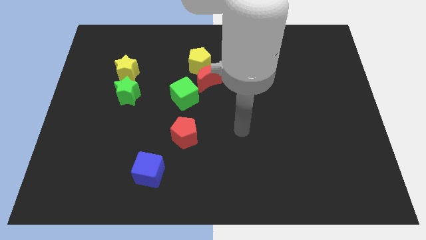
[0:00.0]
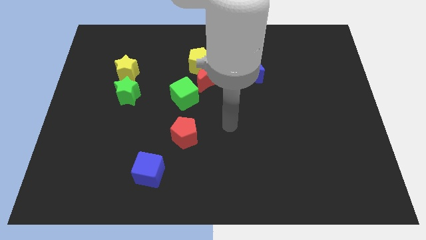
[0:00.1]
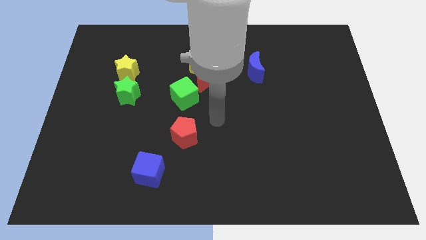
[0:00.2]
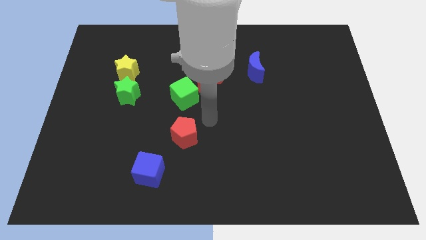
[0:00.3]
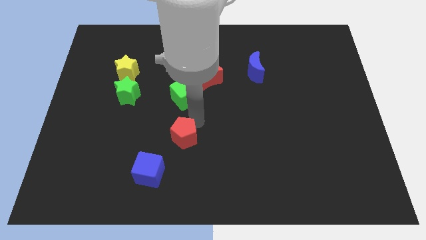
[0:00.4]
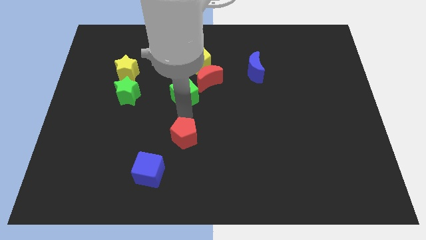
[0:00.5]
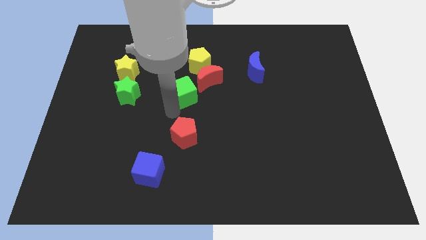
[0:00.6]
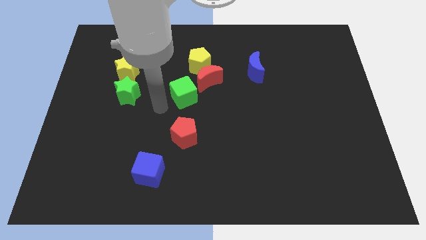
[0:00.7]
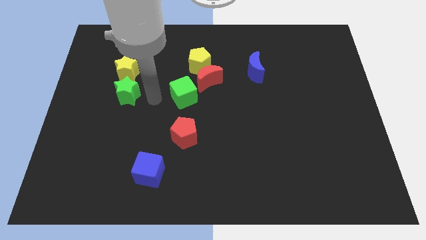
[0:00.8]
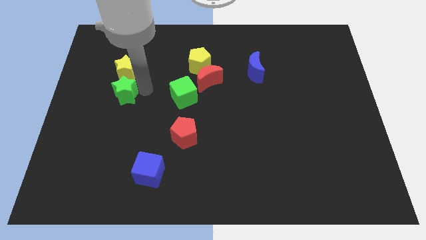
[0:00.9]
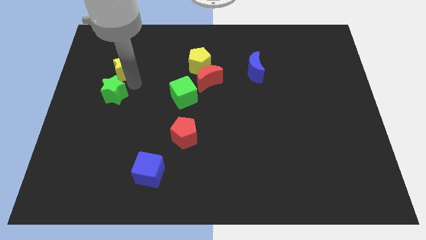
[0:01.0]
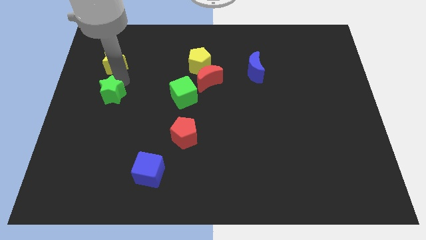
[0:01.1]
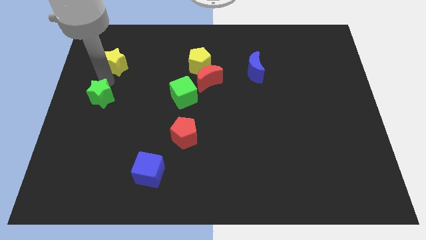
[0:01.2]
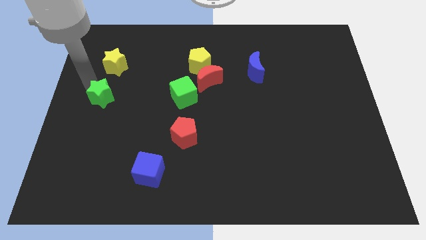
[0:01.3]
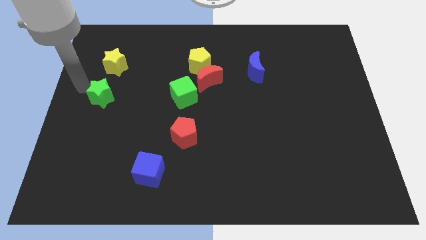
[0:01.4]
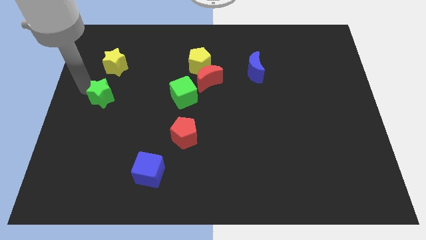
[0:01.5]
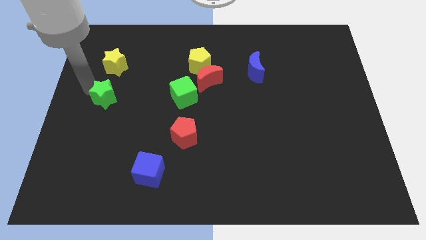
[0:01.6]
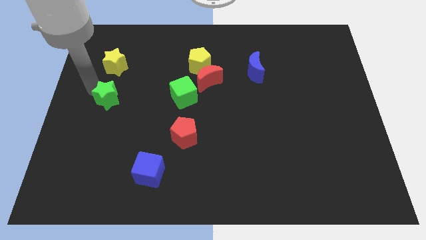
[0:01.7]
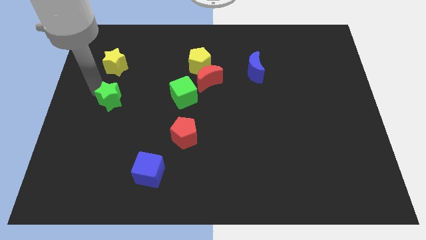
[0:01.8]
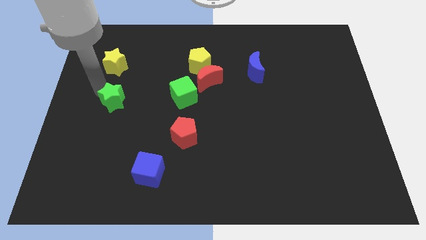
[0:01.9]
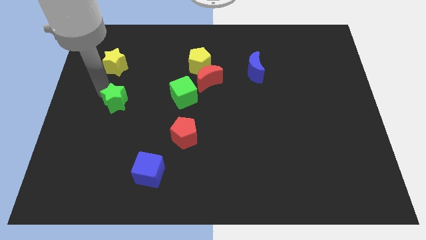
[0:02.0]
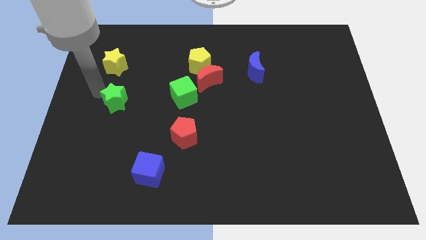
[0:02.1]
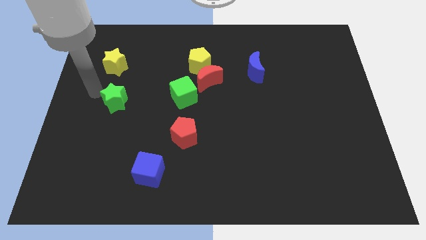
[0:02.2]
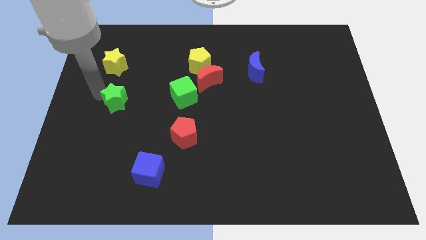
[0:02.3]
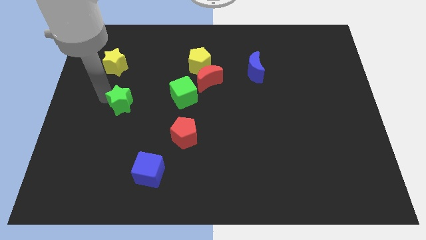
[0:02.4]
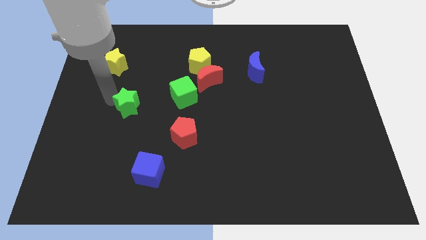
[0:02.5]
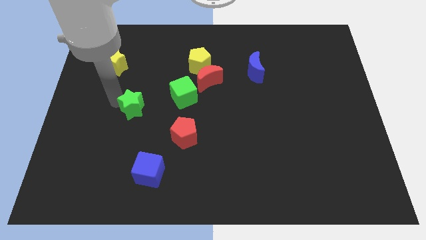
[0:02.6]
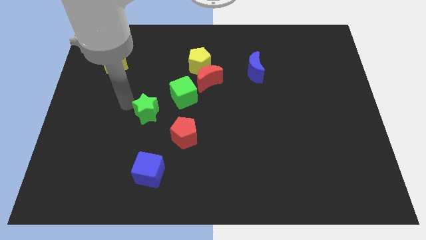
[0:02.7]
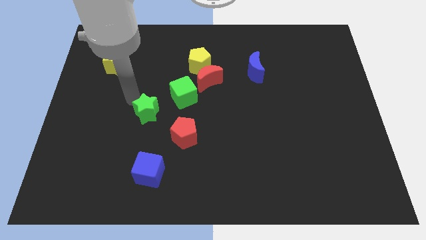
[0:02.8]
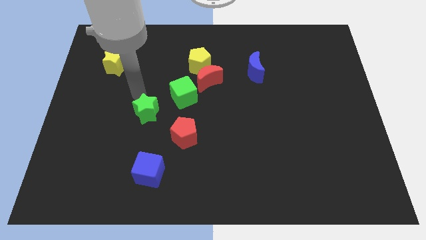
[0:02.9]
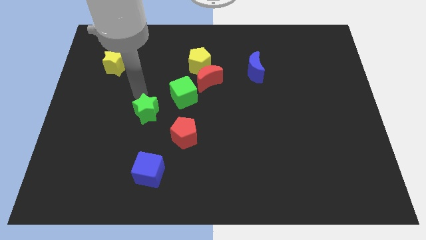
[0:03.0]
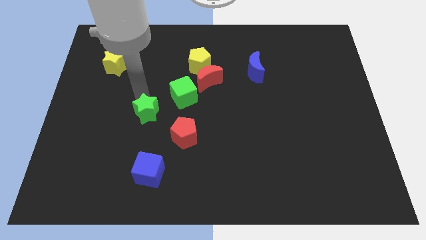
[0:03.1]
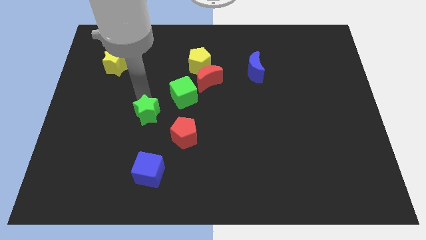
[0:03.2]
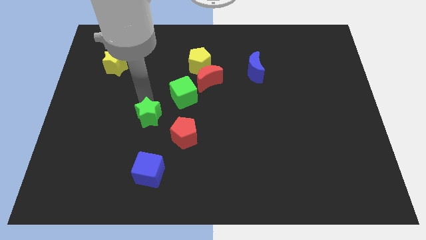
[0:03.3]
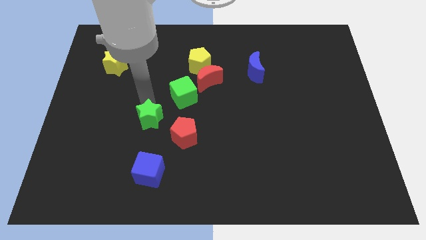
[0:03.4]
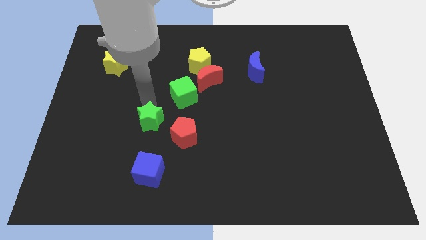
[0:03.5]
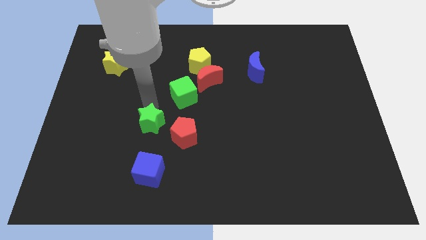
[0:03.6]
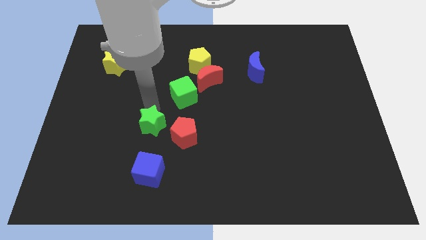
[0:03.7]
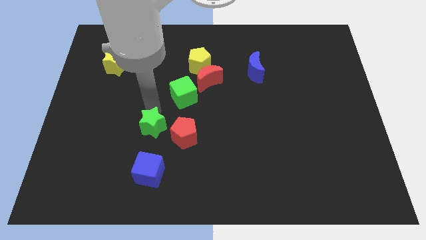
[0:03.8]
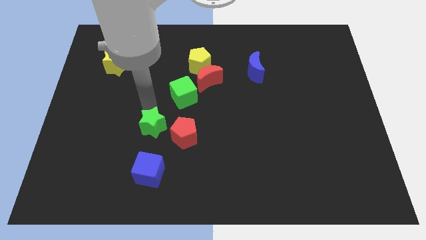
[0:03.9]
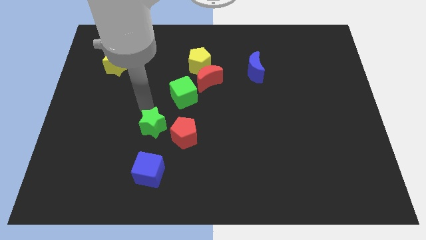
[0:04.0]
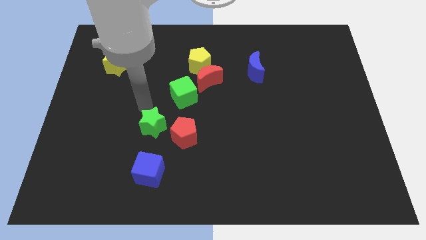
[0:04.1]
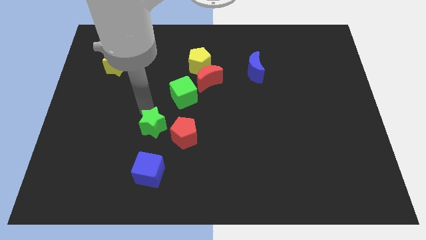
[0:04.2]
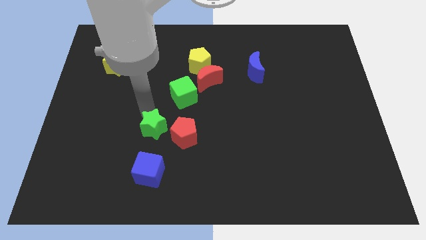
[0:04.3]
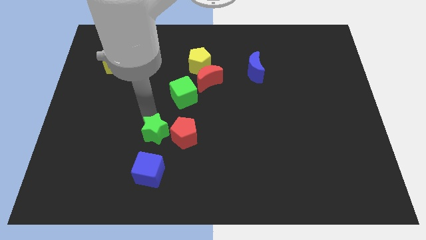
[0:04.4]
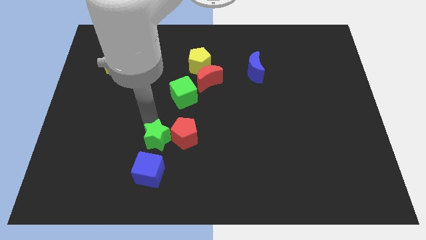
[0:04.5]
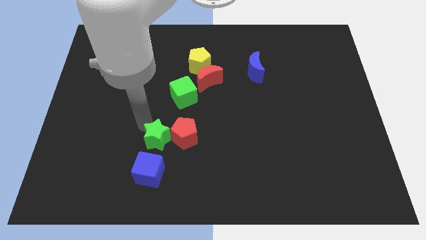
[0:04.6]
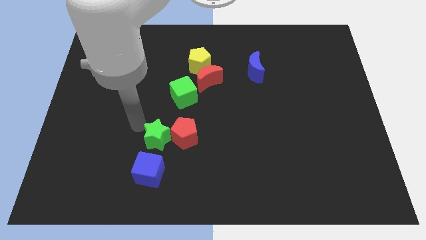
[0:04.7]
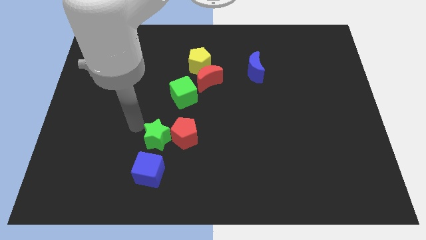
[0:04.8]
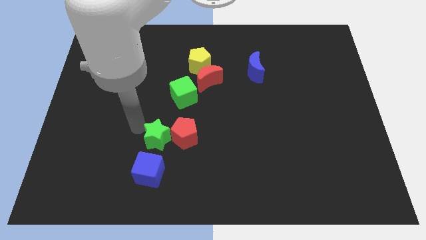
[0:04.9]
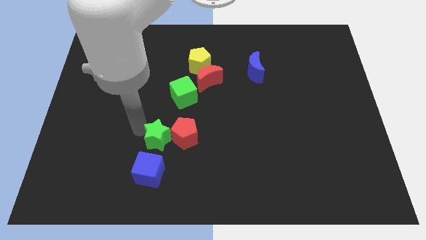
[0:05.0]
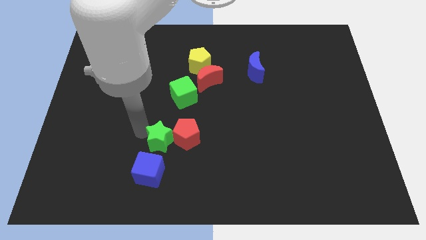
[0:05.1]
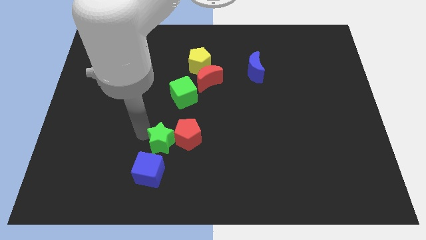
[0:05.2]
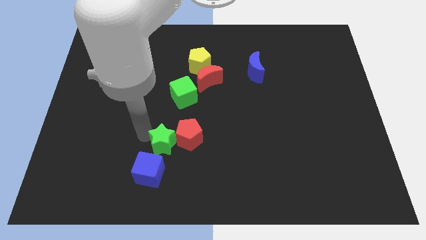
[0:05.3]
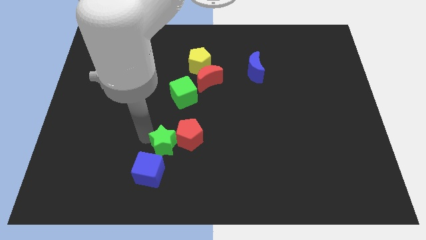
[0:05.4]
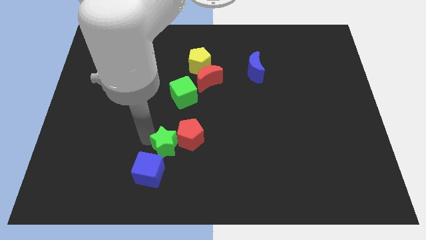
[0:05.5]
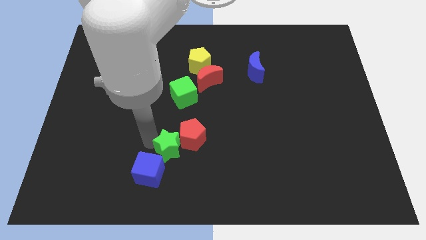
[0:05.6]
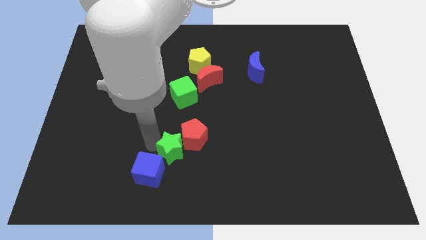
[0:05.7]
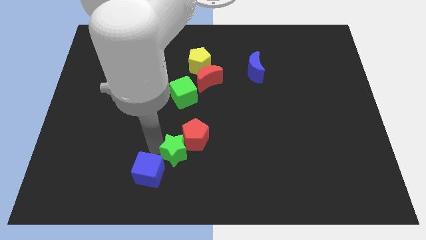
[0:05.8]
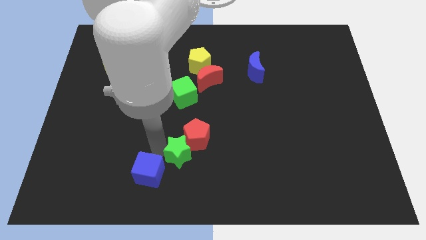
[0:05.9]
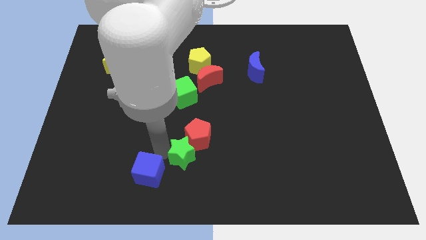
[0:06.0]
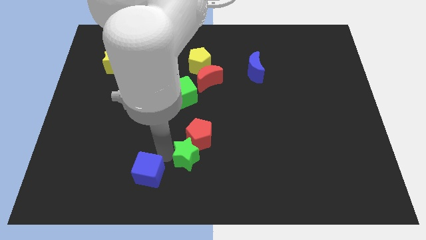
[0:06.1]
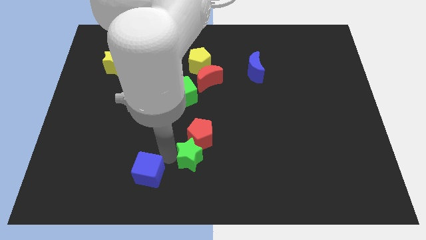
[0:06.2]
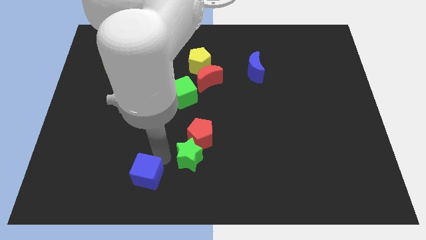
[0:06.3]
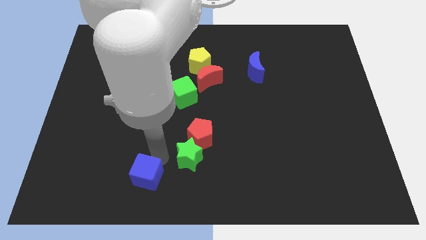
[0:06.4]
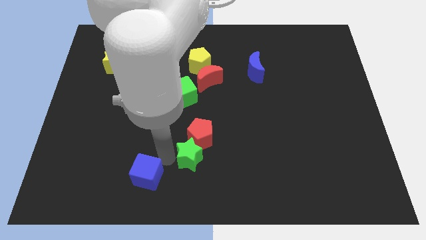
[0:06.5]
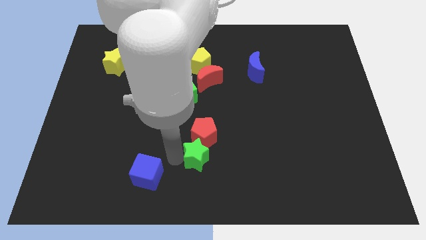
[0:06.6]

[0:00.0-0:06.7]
push the green star to the bottom right side of the red pentagon

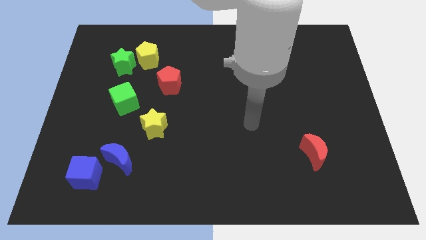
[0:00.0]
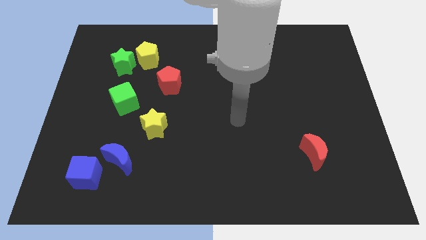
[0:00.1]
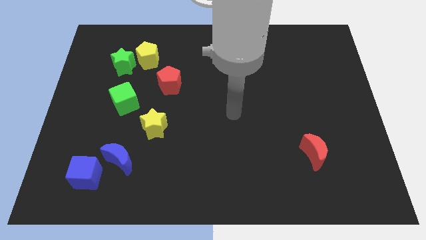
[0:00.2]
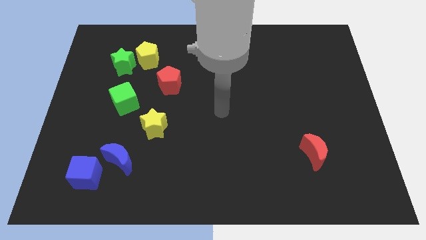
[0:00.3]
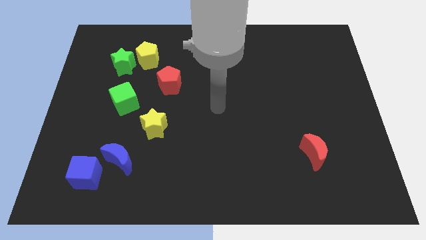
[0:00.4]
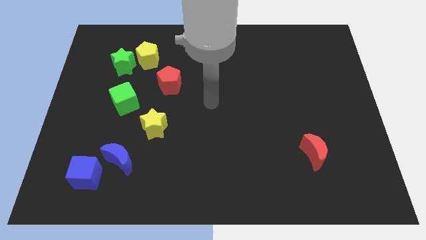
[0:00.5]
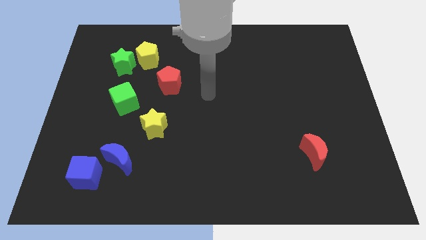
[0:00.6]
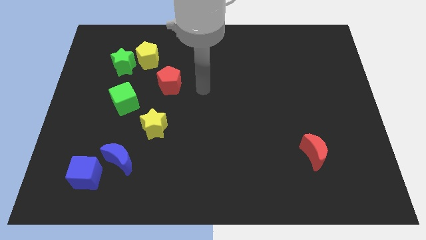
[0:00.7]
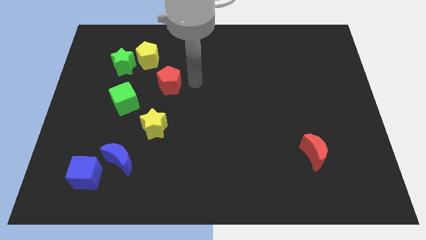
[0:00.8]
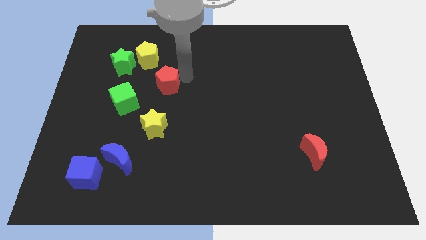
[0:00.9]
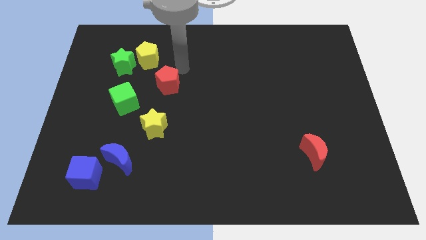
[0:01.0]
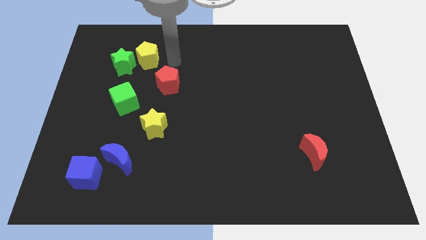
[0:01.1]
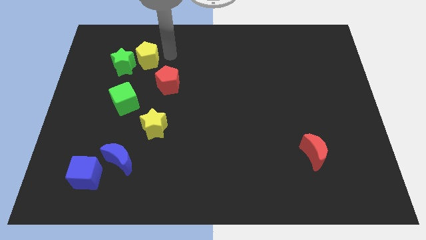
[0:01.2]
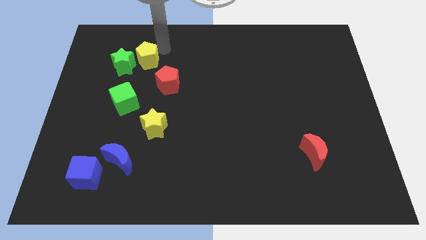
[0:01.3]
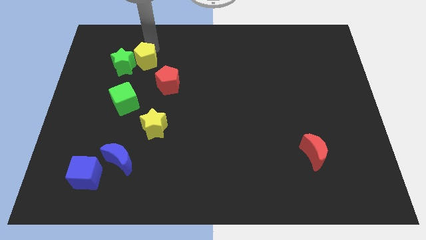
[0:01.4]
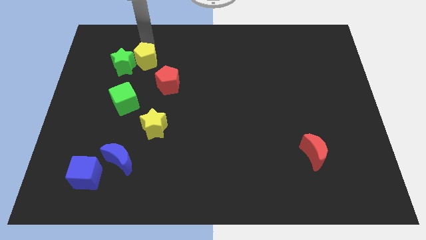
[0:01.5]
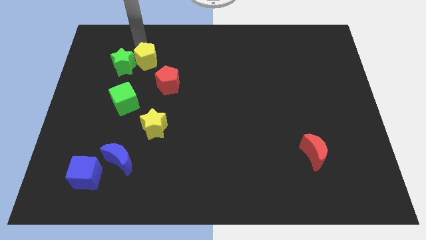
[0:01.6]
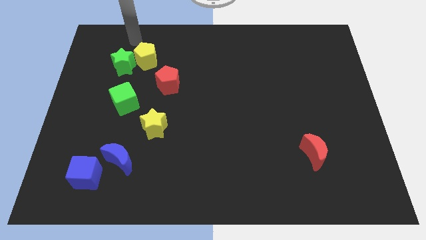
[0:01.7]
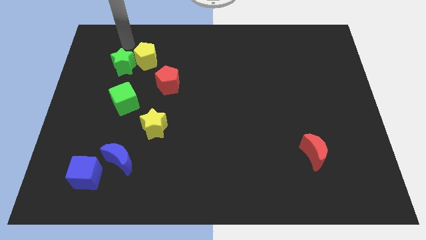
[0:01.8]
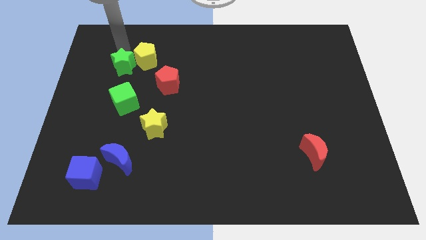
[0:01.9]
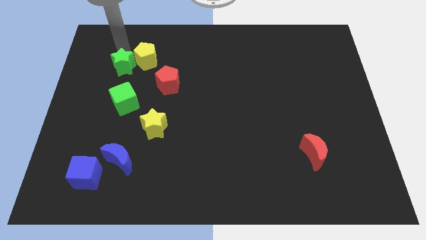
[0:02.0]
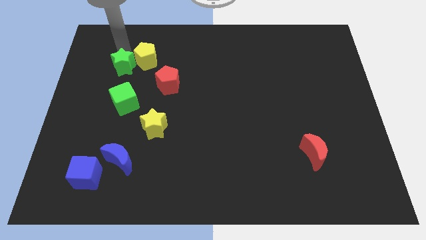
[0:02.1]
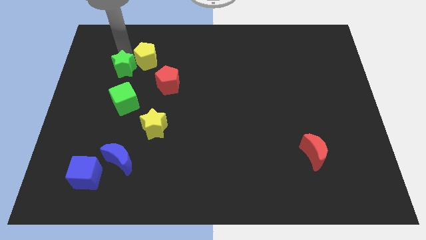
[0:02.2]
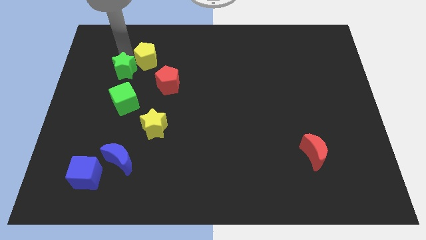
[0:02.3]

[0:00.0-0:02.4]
slide the green star to the left side of the red pentagon
